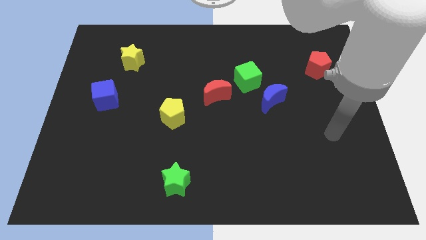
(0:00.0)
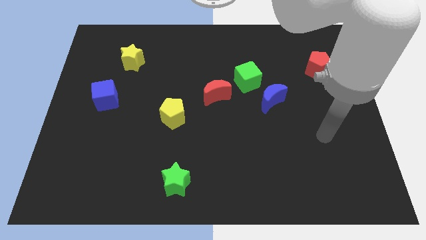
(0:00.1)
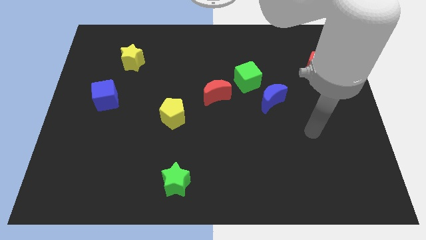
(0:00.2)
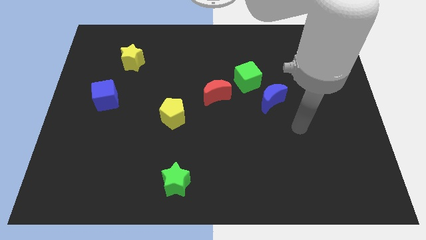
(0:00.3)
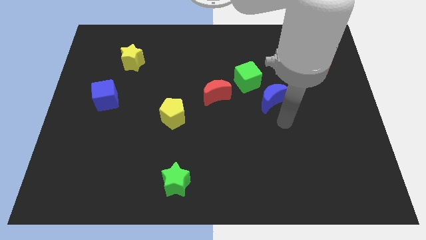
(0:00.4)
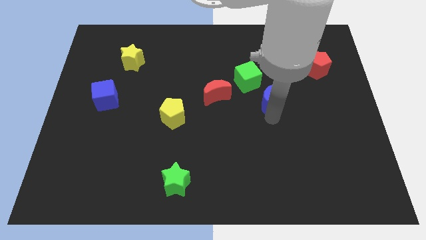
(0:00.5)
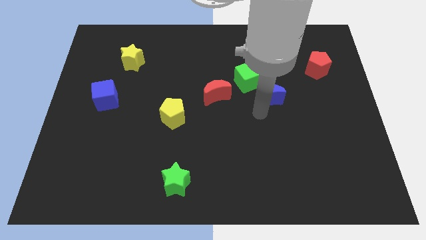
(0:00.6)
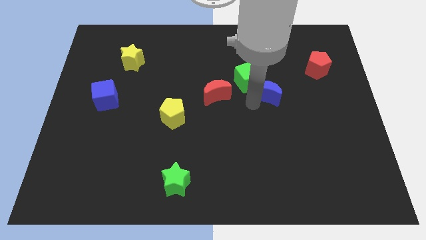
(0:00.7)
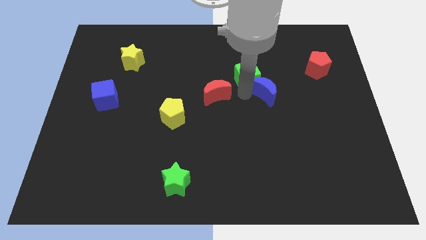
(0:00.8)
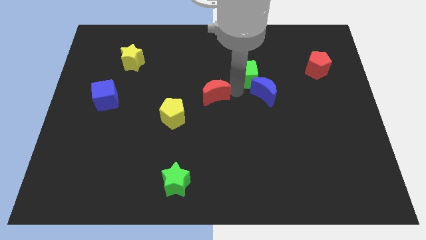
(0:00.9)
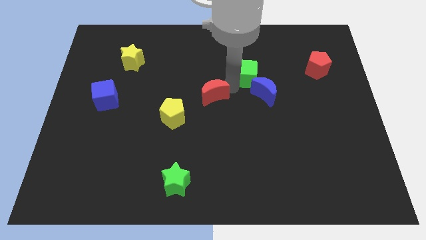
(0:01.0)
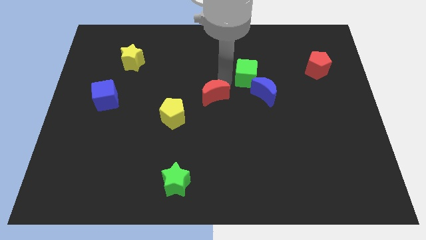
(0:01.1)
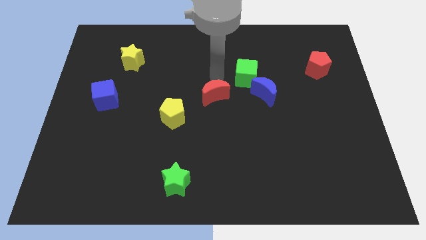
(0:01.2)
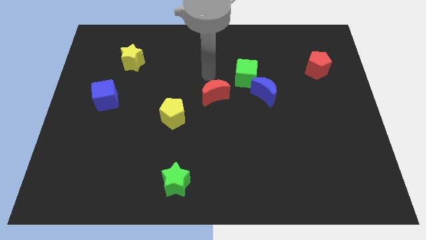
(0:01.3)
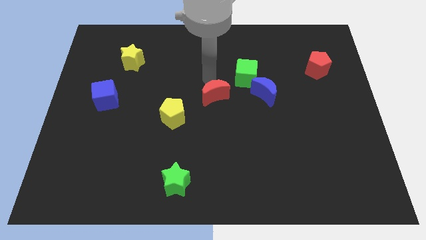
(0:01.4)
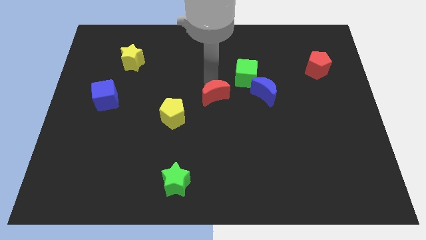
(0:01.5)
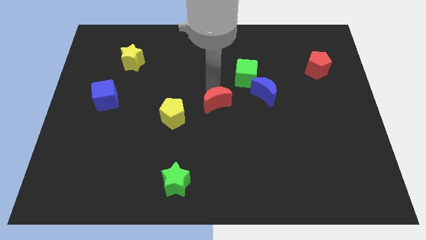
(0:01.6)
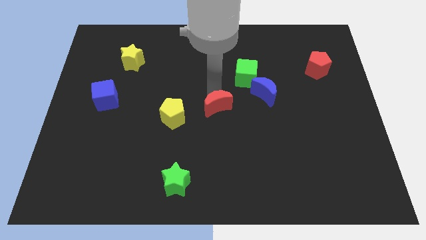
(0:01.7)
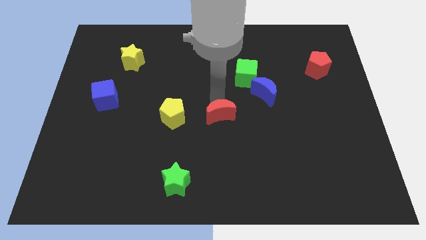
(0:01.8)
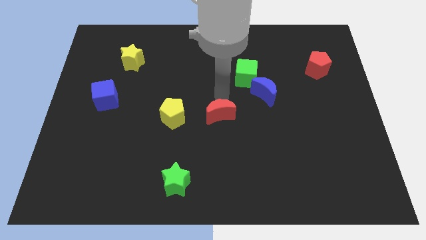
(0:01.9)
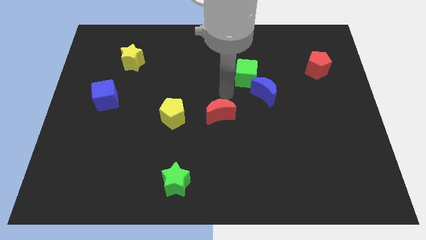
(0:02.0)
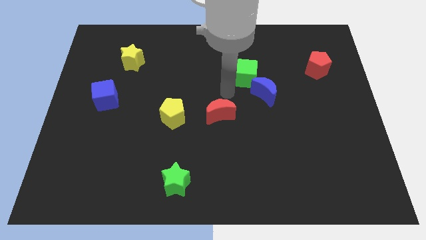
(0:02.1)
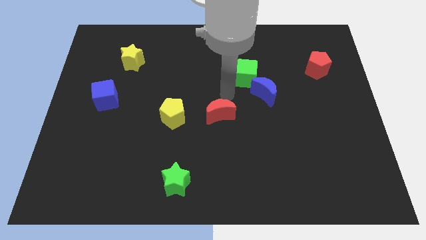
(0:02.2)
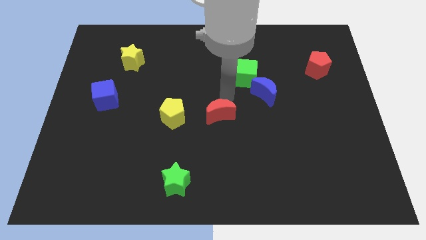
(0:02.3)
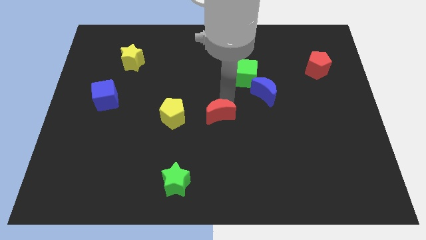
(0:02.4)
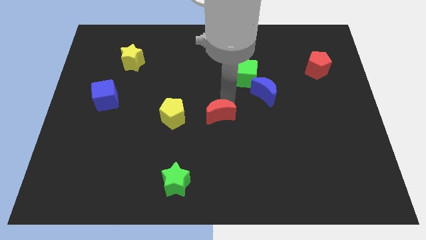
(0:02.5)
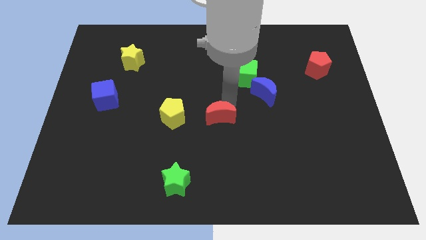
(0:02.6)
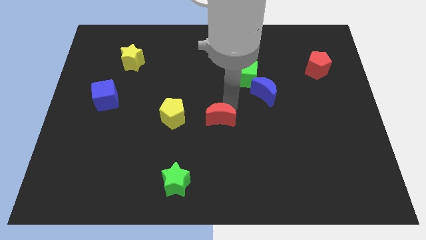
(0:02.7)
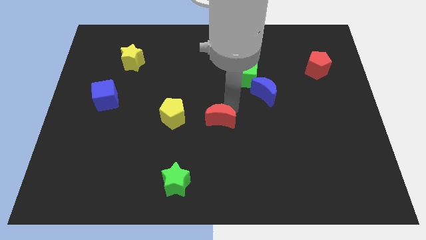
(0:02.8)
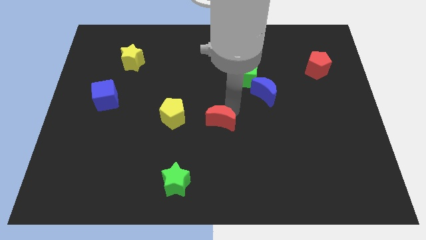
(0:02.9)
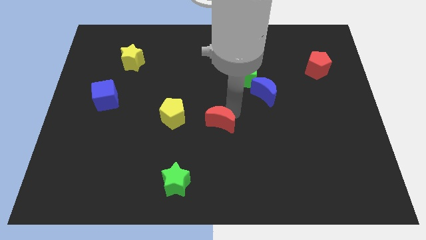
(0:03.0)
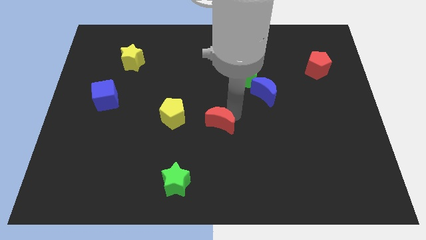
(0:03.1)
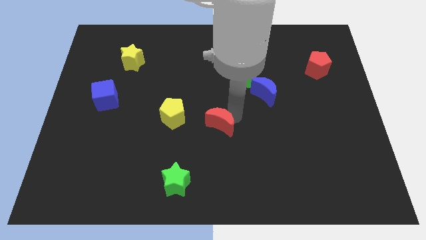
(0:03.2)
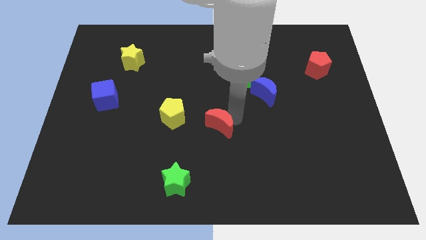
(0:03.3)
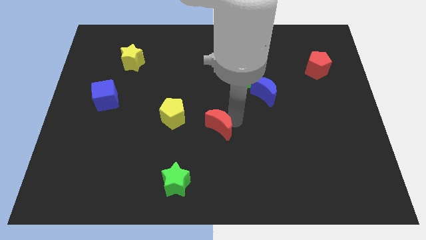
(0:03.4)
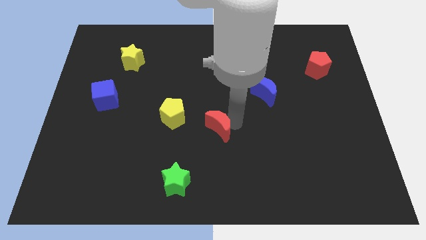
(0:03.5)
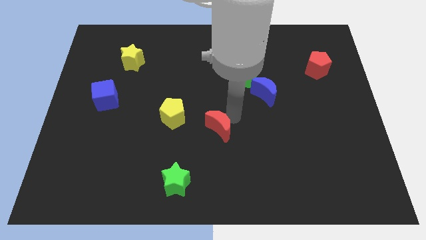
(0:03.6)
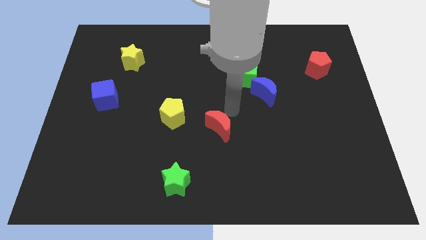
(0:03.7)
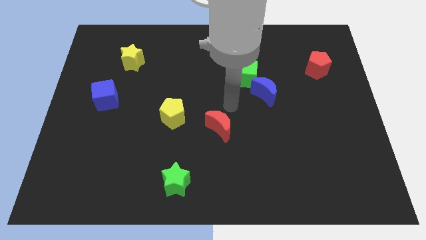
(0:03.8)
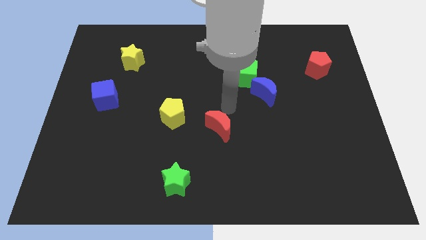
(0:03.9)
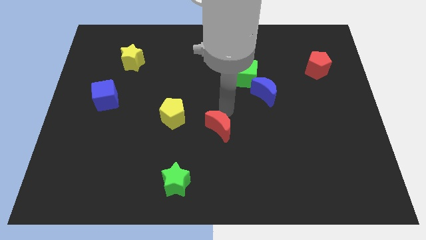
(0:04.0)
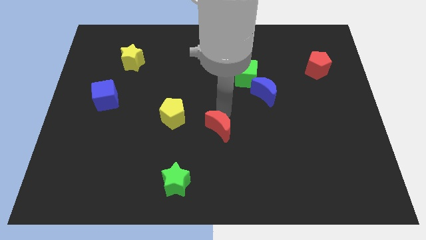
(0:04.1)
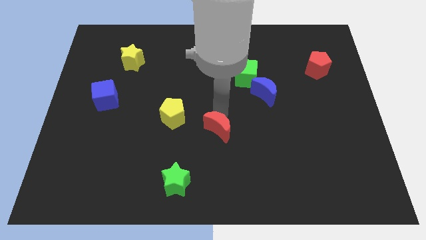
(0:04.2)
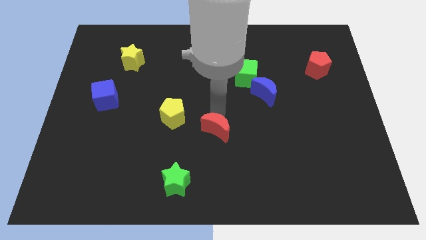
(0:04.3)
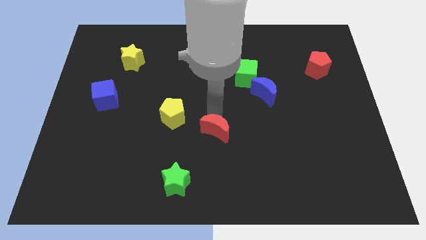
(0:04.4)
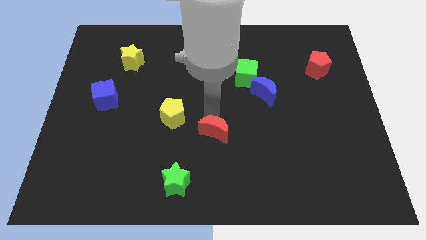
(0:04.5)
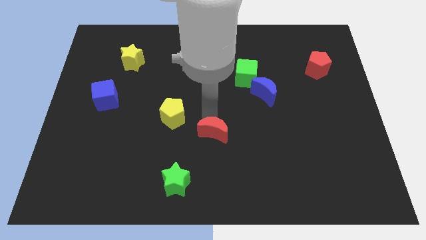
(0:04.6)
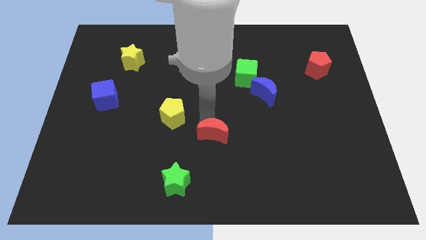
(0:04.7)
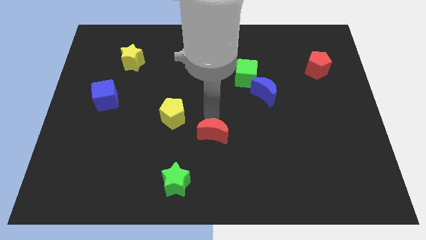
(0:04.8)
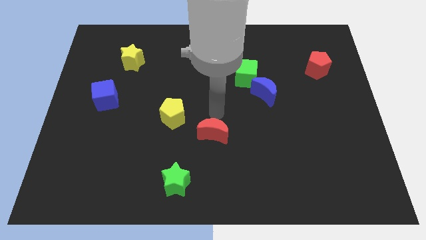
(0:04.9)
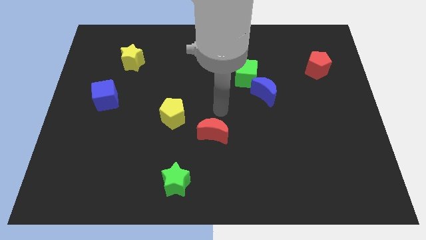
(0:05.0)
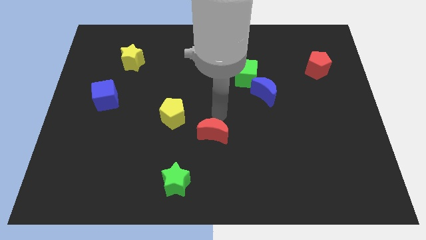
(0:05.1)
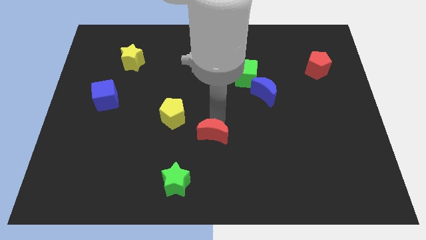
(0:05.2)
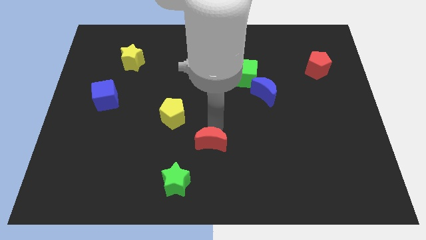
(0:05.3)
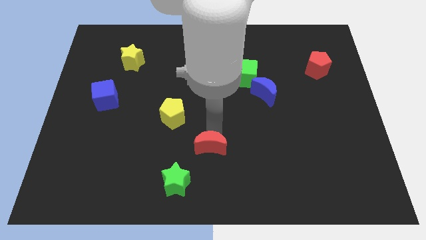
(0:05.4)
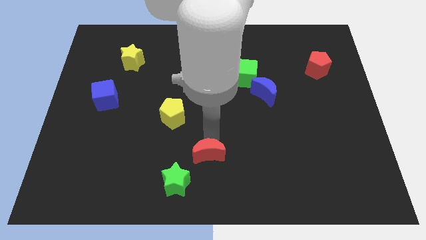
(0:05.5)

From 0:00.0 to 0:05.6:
push the red moon to the bottom

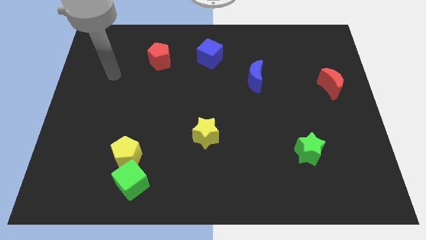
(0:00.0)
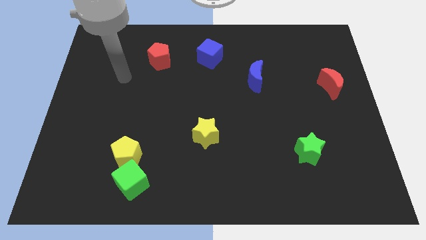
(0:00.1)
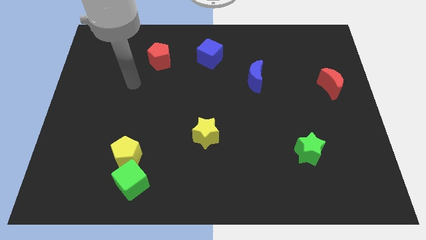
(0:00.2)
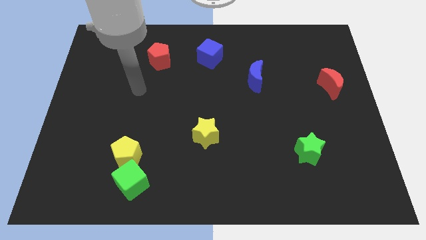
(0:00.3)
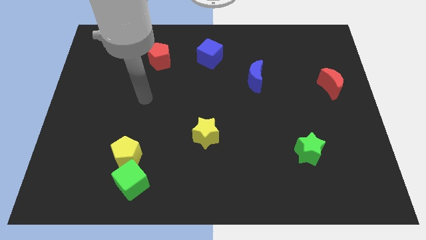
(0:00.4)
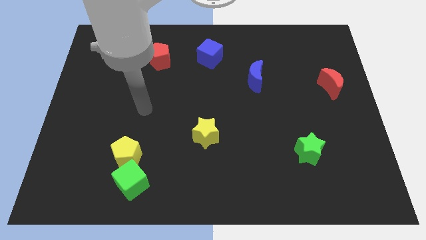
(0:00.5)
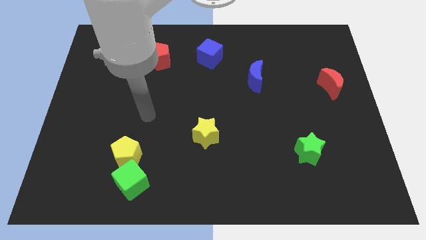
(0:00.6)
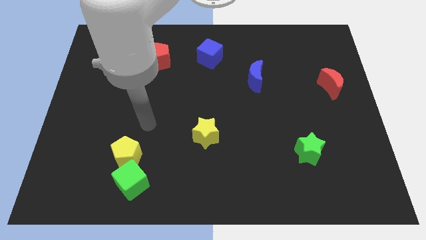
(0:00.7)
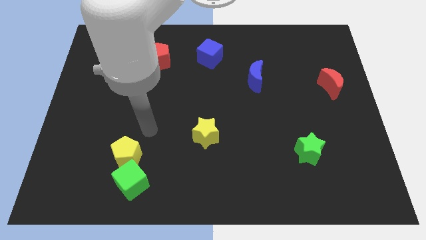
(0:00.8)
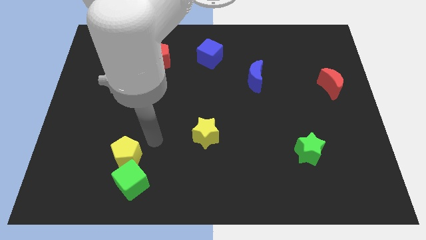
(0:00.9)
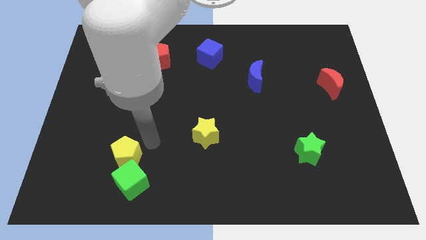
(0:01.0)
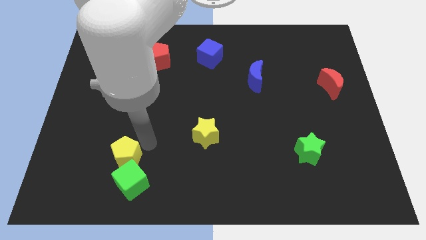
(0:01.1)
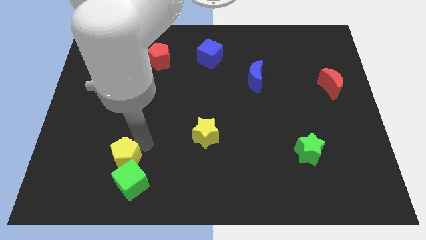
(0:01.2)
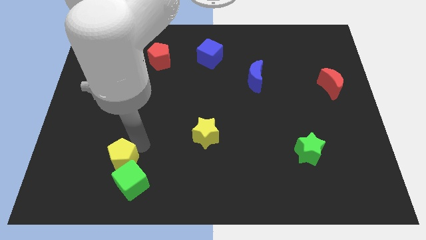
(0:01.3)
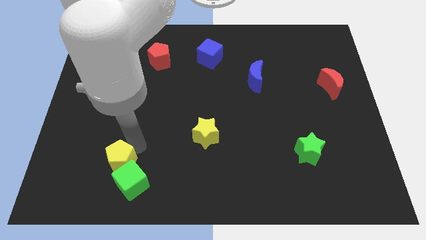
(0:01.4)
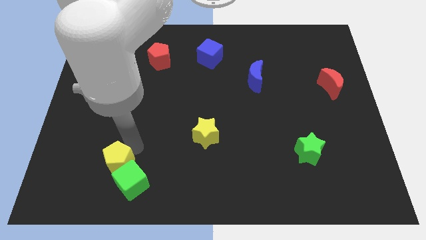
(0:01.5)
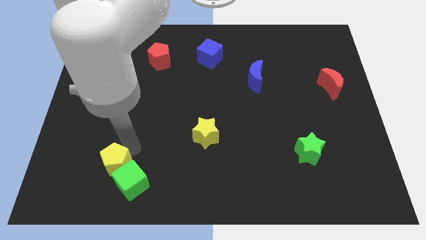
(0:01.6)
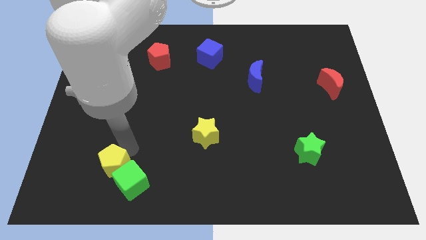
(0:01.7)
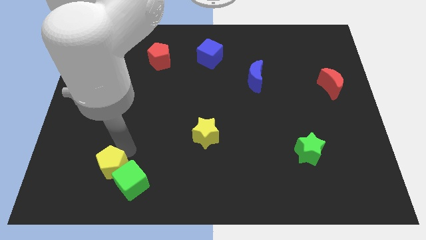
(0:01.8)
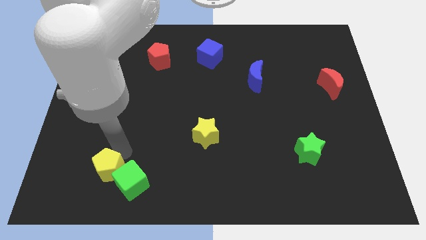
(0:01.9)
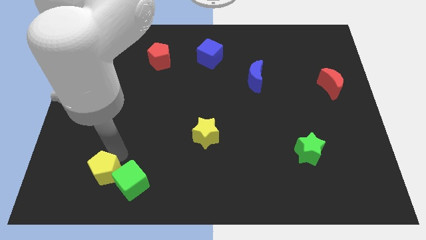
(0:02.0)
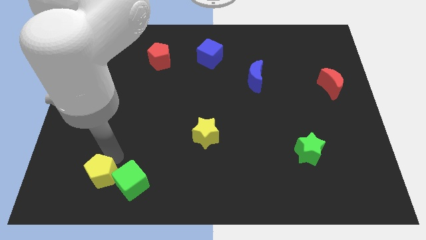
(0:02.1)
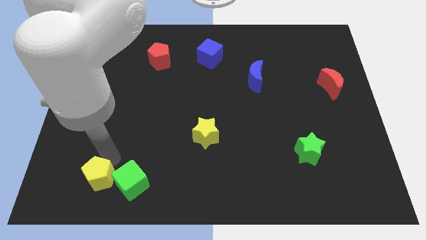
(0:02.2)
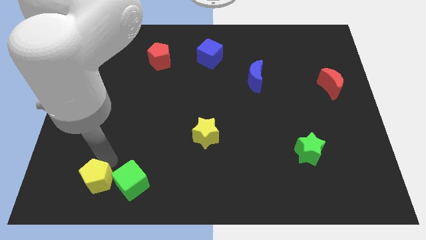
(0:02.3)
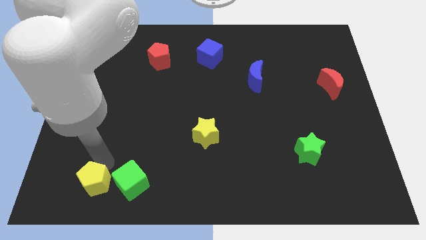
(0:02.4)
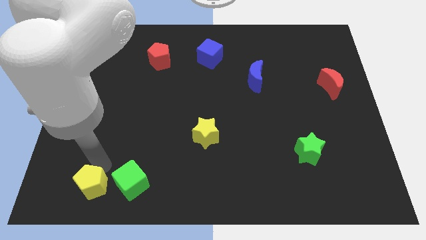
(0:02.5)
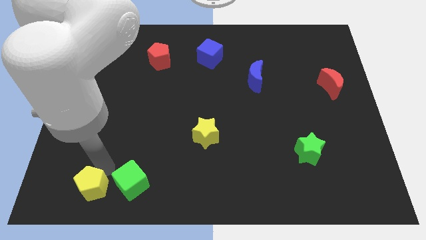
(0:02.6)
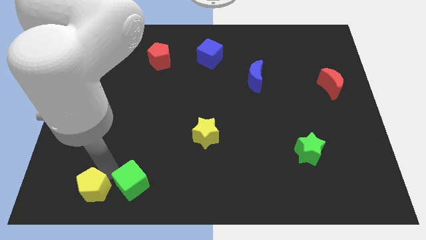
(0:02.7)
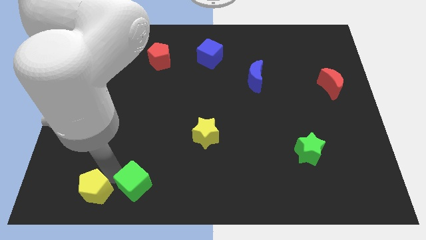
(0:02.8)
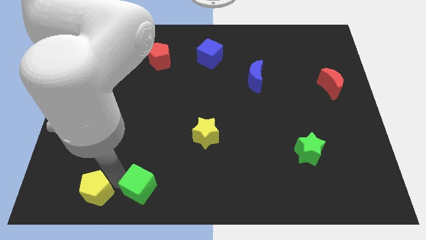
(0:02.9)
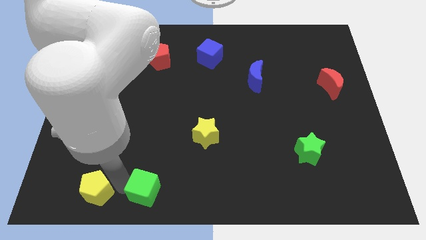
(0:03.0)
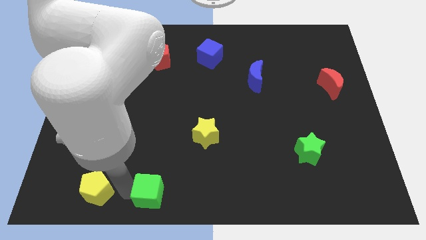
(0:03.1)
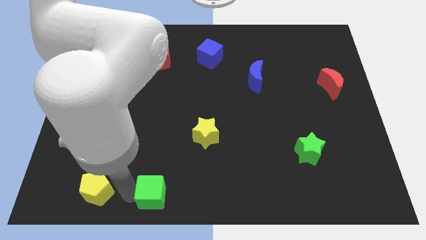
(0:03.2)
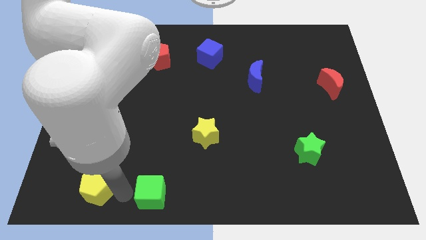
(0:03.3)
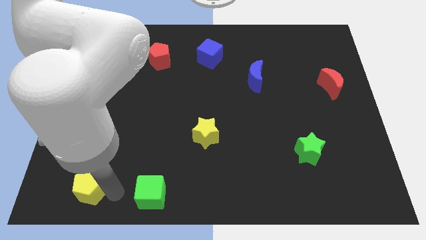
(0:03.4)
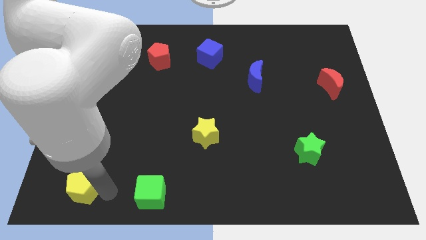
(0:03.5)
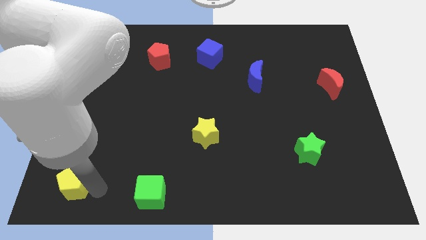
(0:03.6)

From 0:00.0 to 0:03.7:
push the yellow pentagon to the lower left corner
